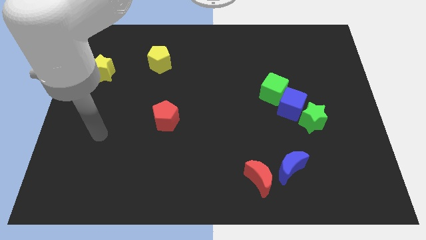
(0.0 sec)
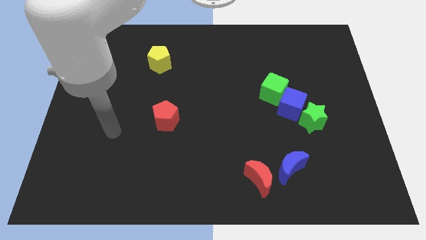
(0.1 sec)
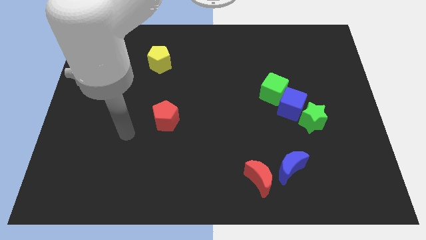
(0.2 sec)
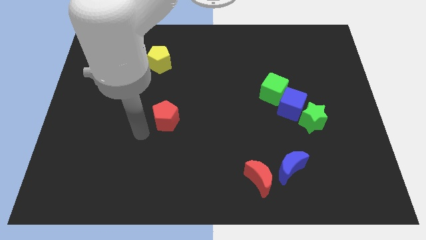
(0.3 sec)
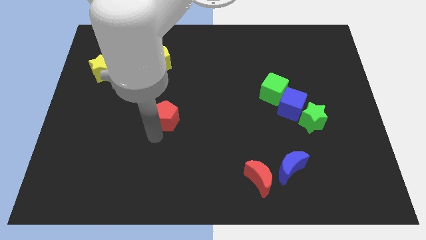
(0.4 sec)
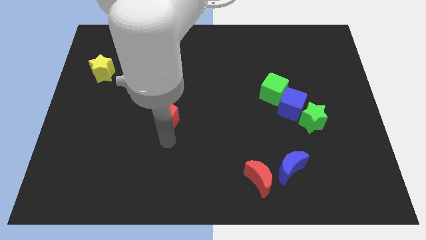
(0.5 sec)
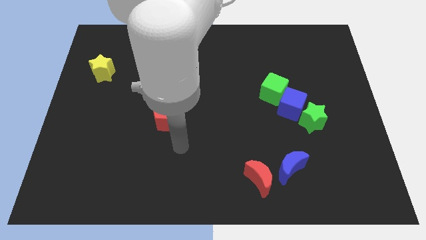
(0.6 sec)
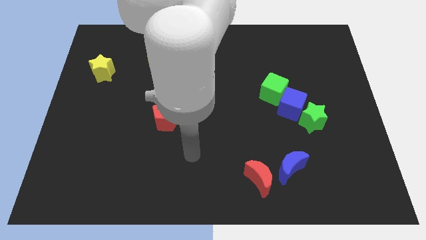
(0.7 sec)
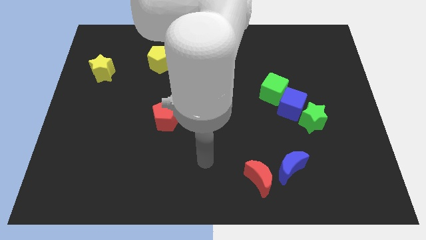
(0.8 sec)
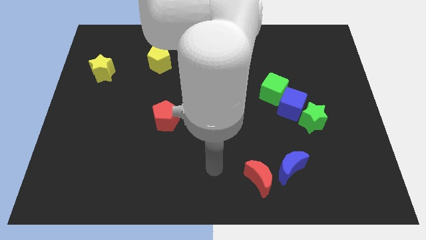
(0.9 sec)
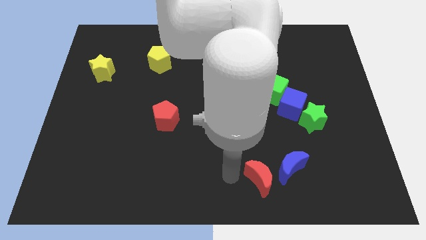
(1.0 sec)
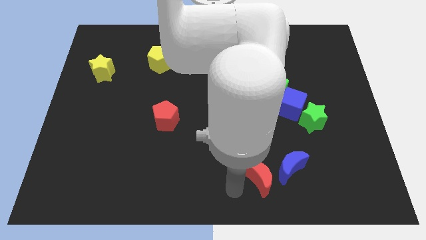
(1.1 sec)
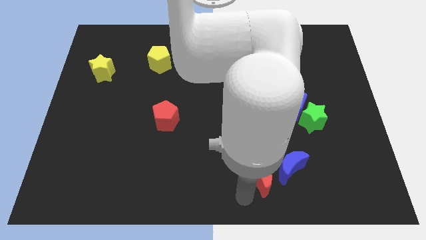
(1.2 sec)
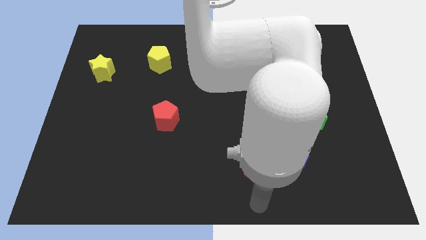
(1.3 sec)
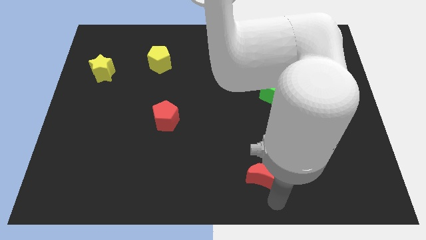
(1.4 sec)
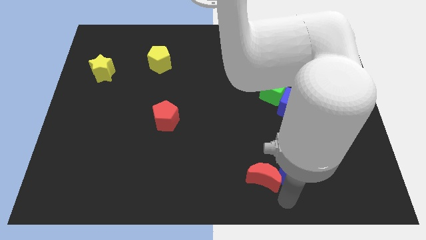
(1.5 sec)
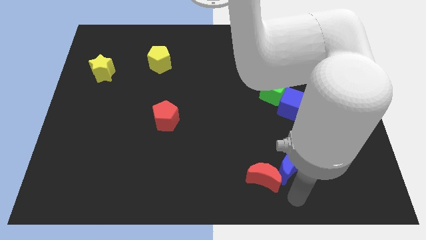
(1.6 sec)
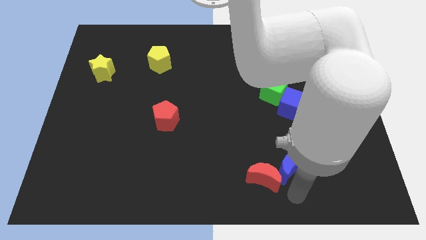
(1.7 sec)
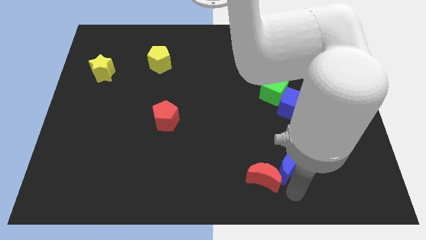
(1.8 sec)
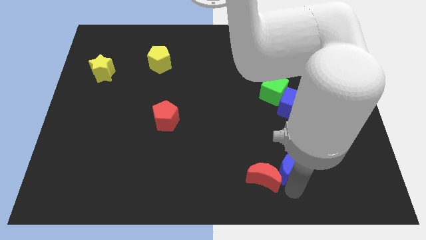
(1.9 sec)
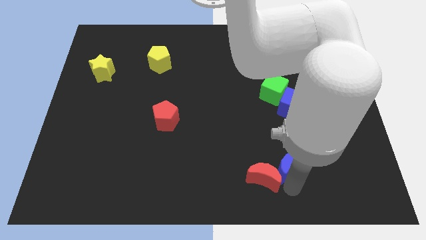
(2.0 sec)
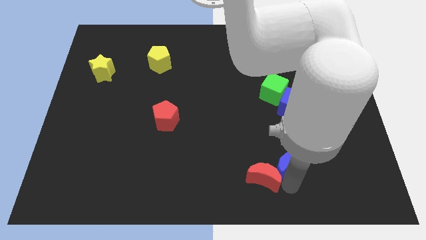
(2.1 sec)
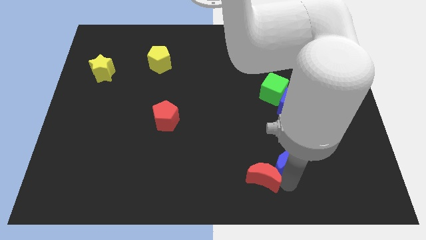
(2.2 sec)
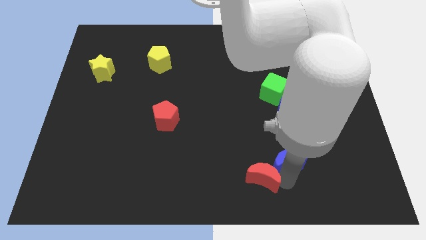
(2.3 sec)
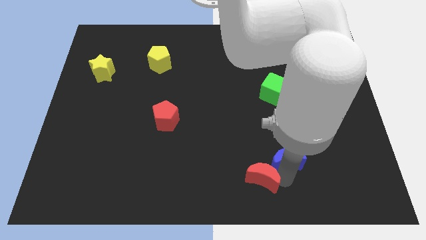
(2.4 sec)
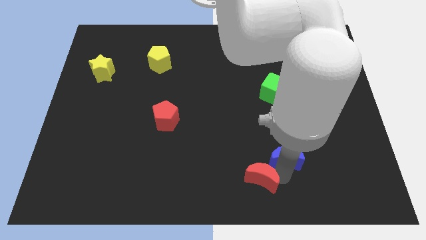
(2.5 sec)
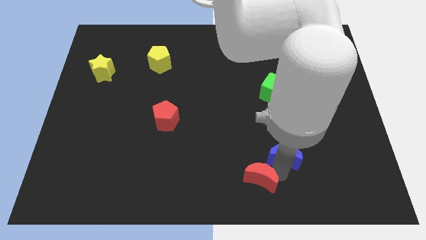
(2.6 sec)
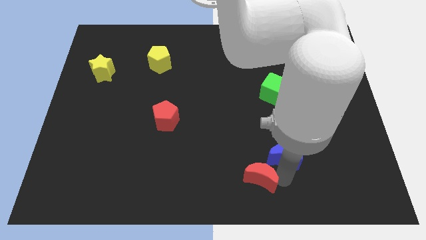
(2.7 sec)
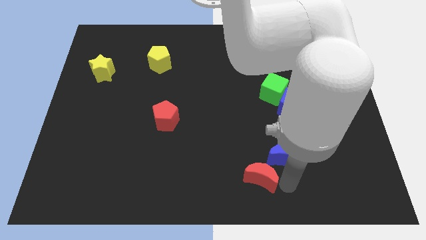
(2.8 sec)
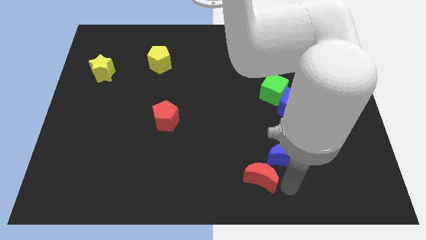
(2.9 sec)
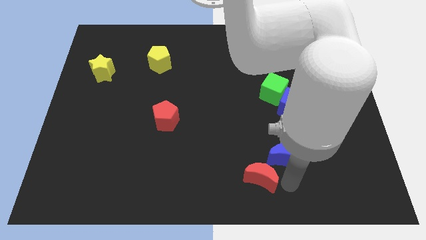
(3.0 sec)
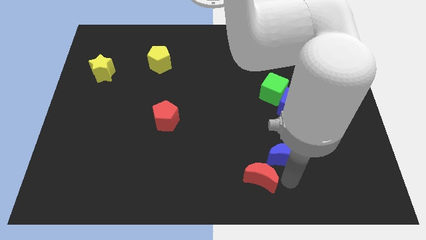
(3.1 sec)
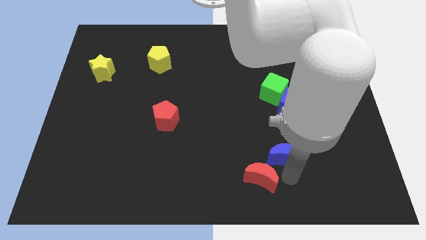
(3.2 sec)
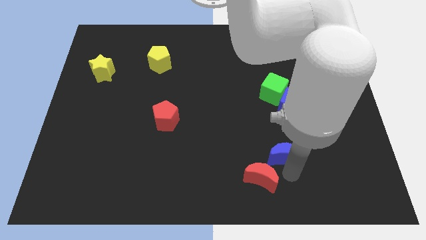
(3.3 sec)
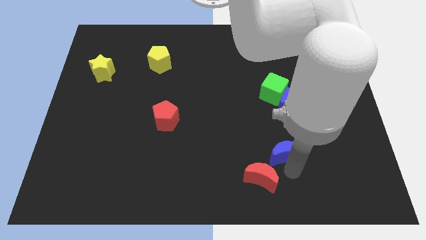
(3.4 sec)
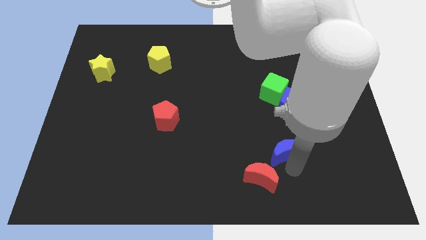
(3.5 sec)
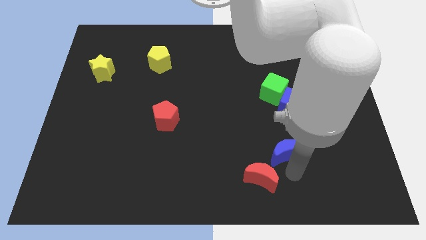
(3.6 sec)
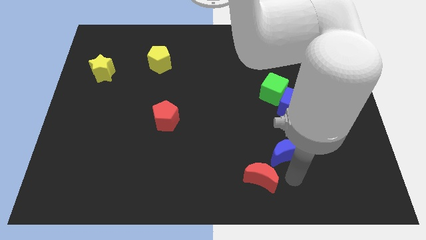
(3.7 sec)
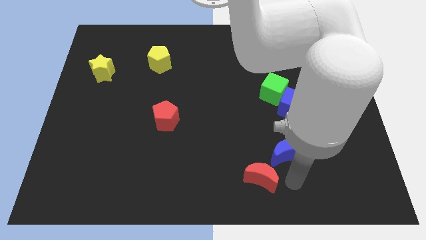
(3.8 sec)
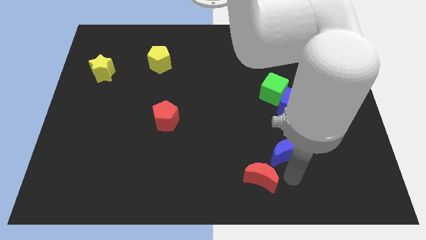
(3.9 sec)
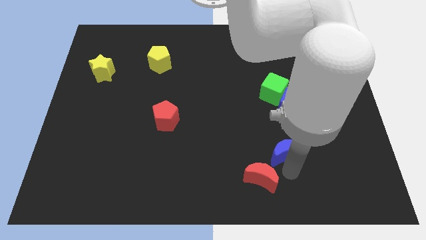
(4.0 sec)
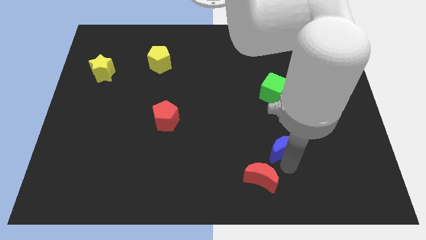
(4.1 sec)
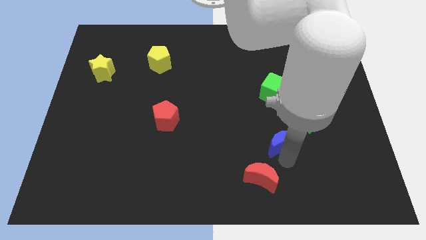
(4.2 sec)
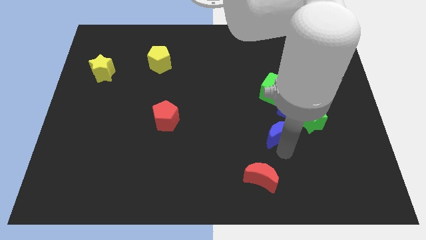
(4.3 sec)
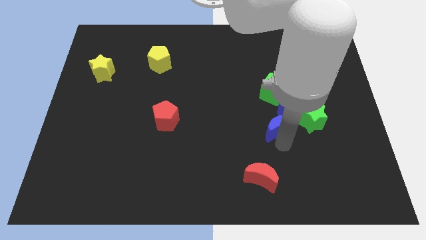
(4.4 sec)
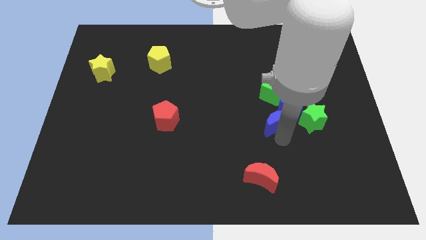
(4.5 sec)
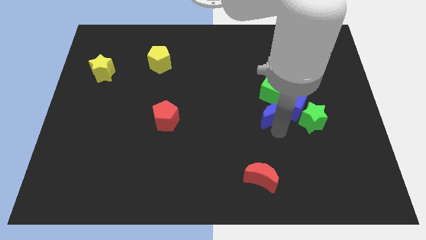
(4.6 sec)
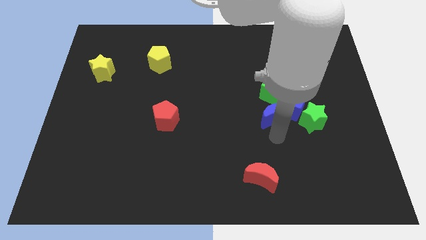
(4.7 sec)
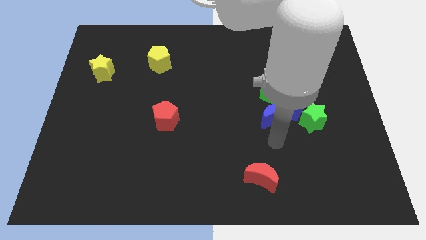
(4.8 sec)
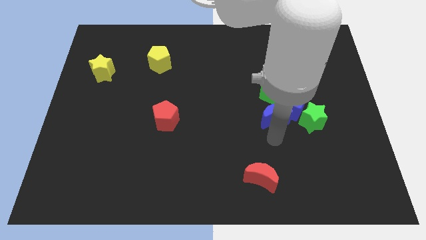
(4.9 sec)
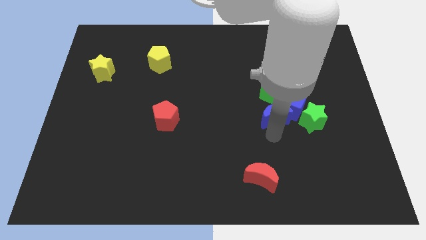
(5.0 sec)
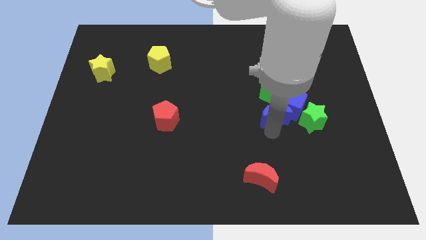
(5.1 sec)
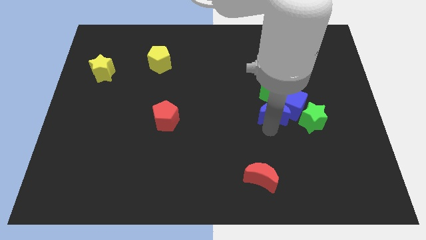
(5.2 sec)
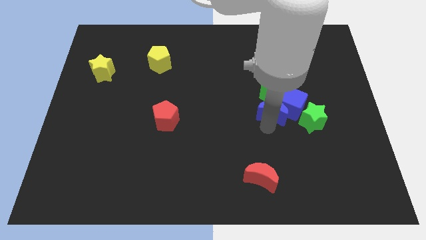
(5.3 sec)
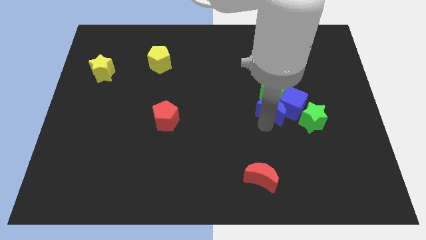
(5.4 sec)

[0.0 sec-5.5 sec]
put the blue moon towards the green cube

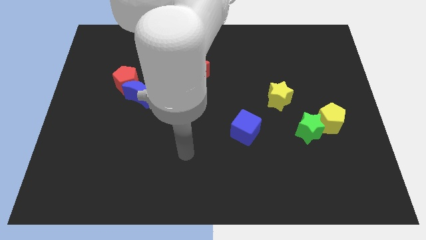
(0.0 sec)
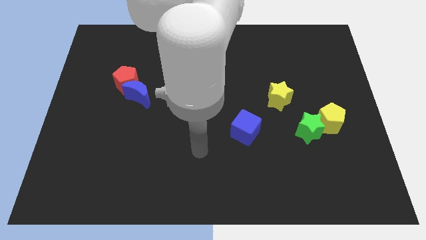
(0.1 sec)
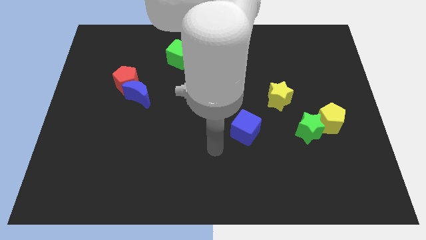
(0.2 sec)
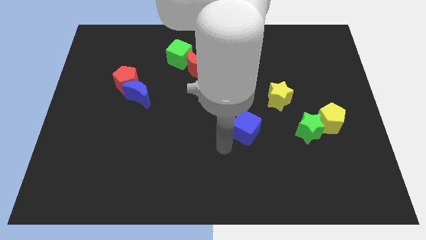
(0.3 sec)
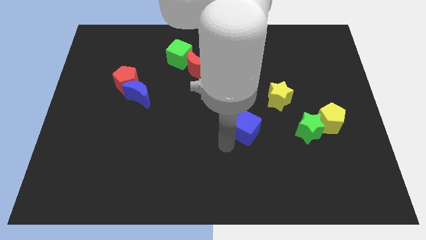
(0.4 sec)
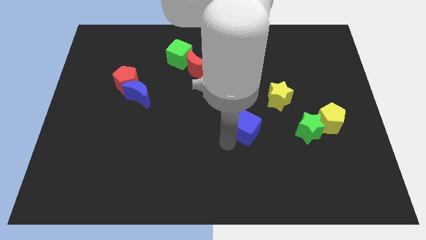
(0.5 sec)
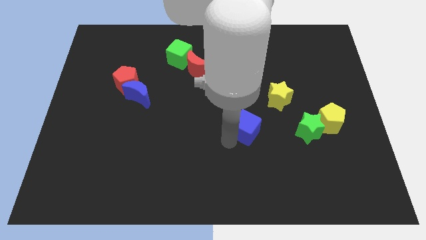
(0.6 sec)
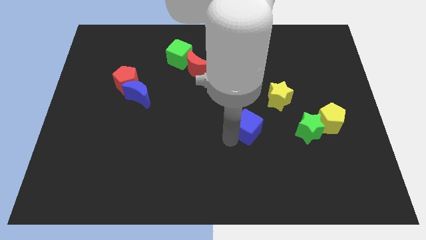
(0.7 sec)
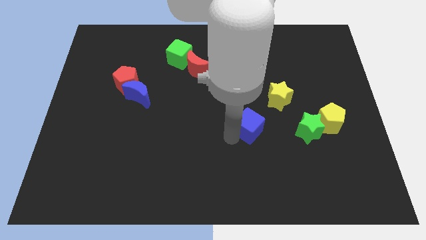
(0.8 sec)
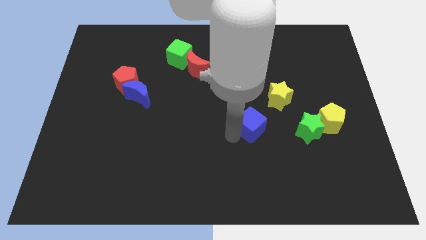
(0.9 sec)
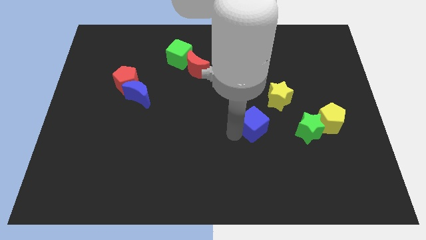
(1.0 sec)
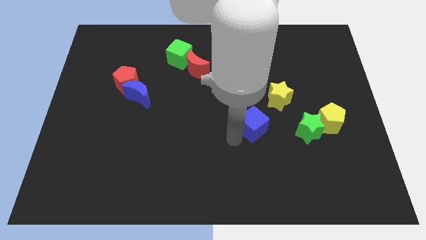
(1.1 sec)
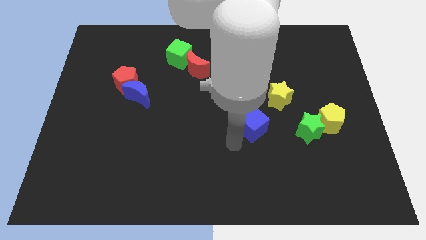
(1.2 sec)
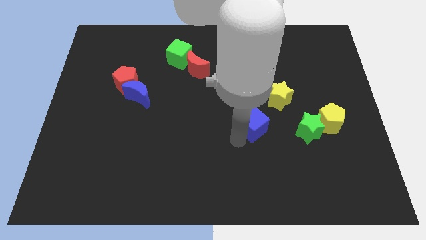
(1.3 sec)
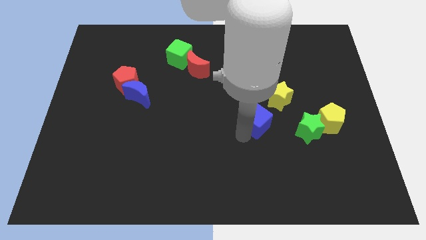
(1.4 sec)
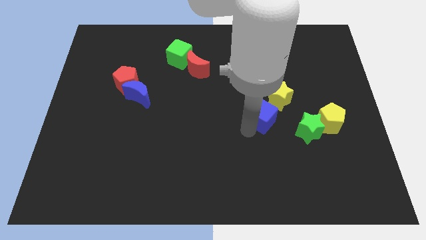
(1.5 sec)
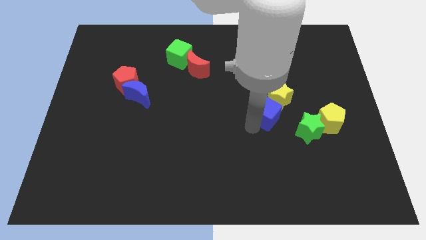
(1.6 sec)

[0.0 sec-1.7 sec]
slide the blue cube next to the yellow star
